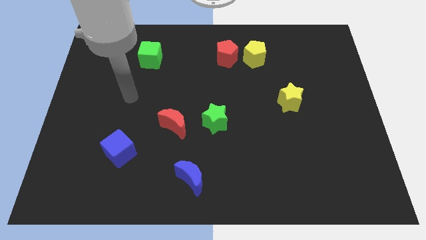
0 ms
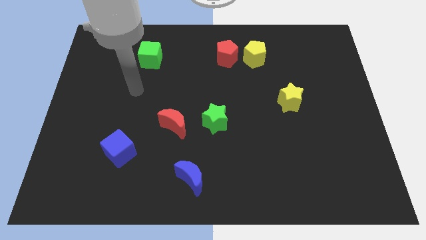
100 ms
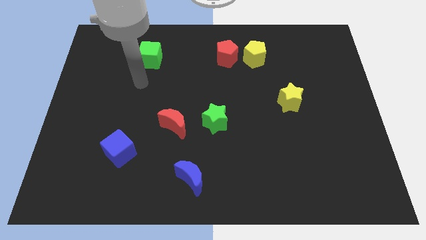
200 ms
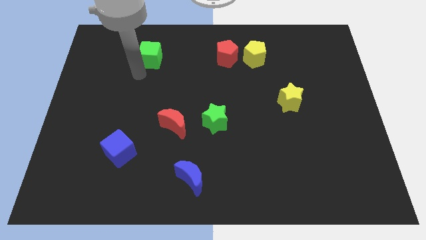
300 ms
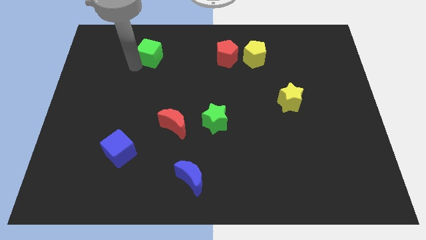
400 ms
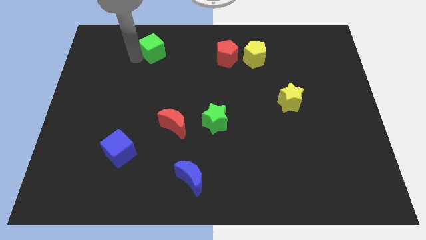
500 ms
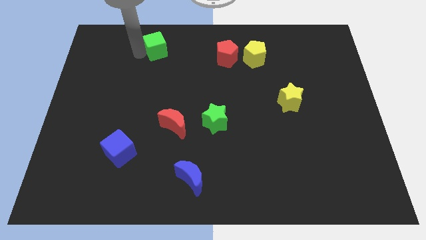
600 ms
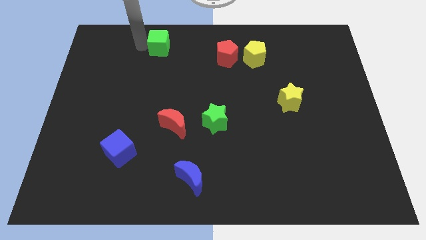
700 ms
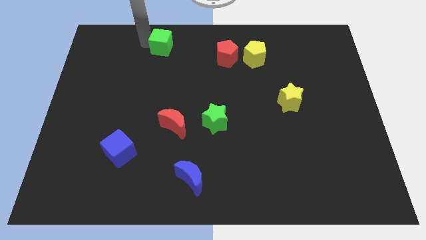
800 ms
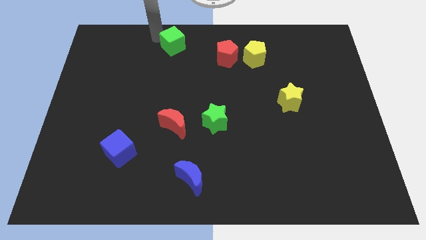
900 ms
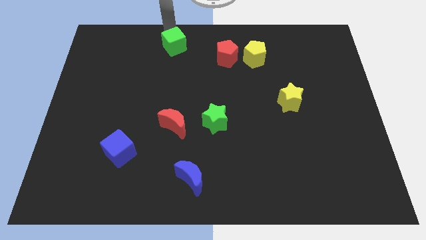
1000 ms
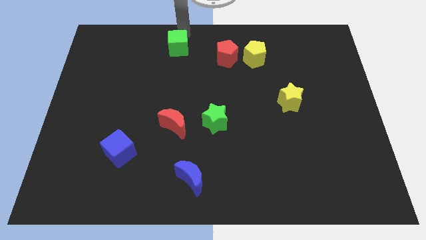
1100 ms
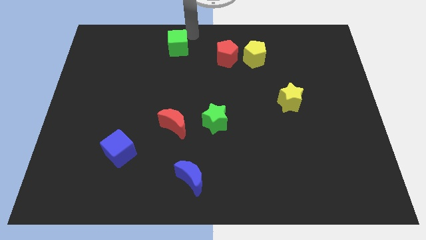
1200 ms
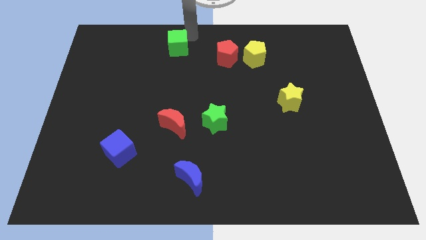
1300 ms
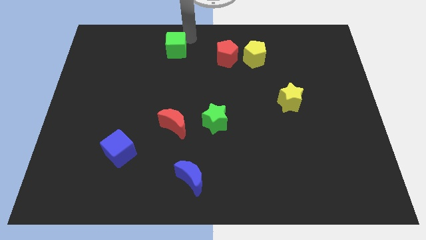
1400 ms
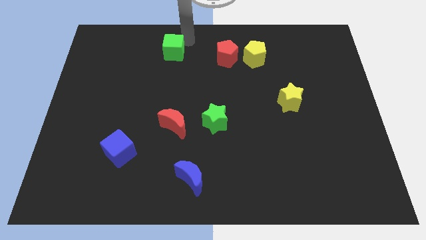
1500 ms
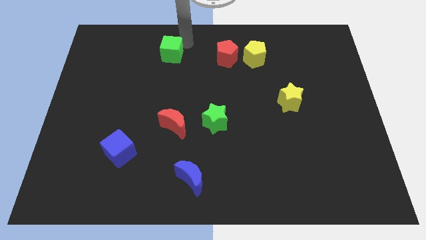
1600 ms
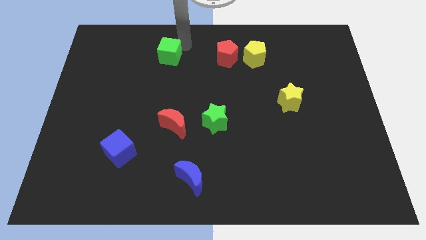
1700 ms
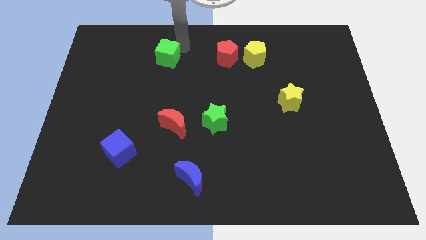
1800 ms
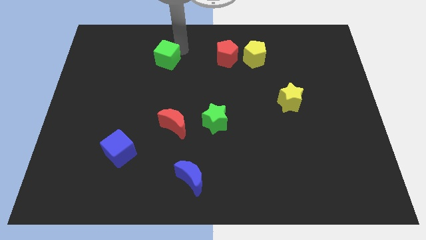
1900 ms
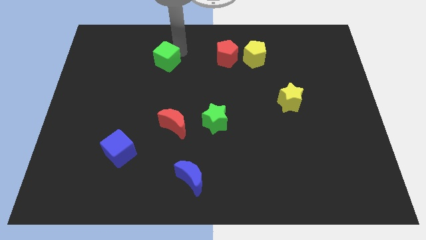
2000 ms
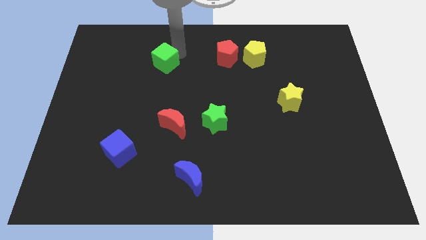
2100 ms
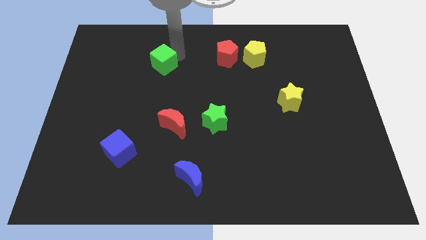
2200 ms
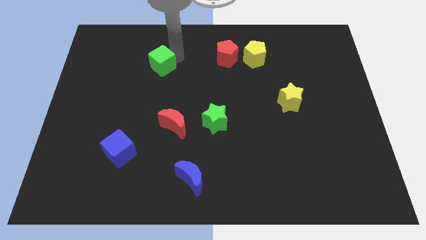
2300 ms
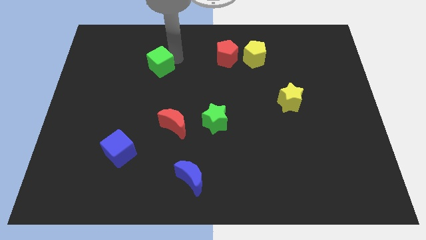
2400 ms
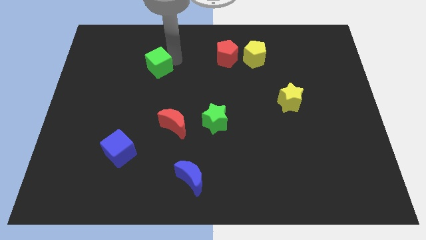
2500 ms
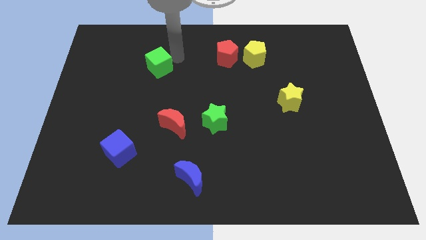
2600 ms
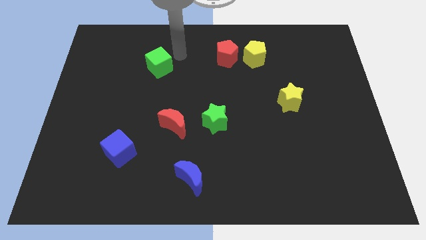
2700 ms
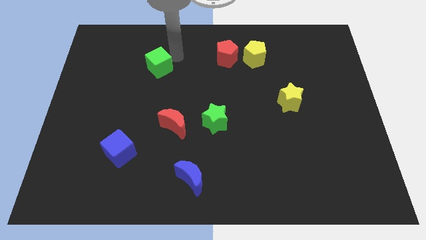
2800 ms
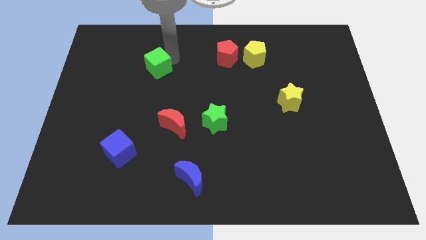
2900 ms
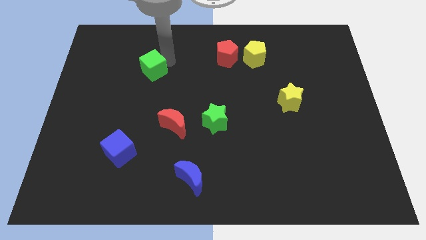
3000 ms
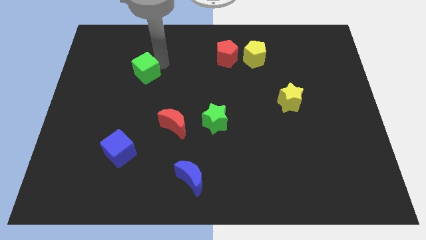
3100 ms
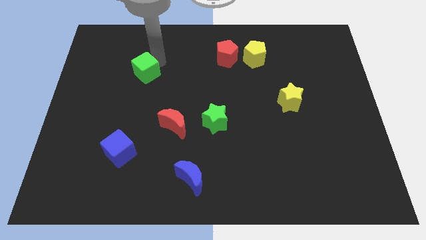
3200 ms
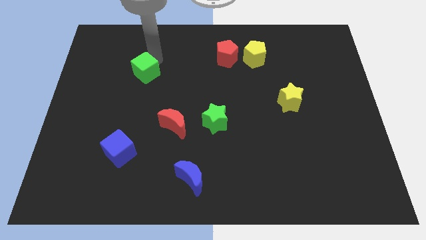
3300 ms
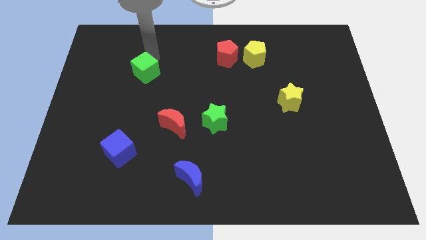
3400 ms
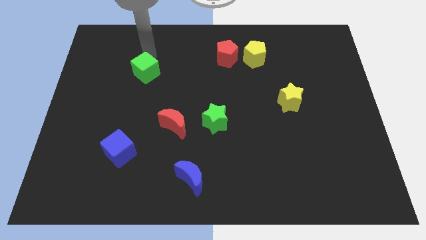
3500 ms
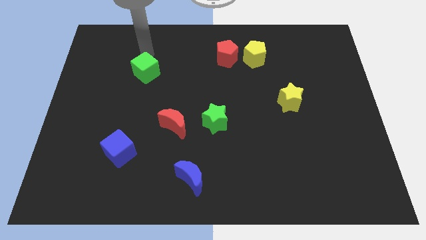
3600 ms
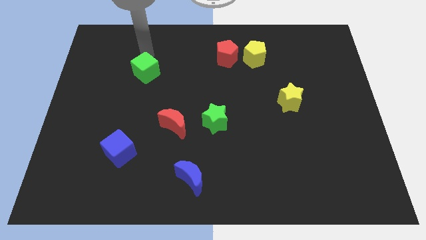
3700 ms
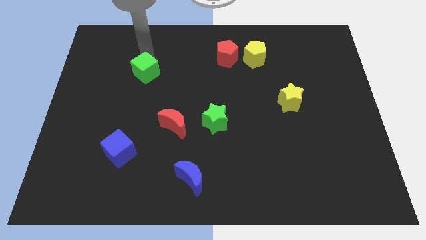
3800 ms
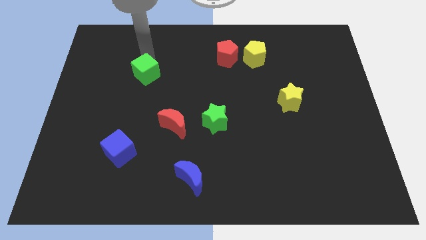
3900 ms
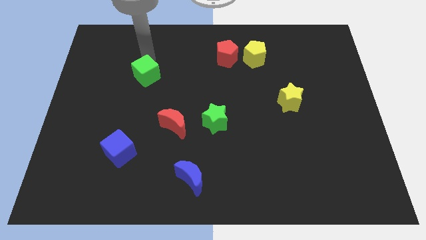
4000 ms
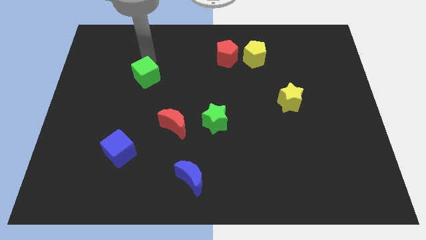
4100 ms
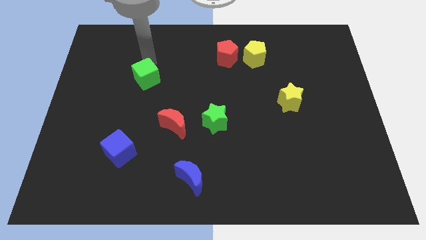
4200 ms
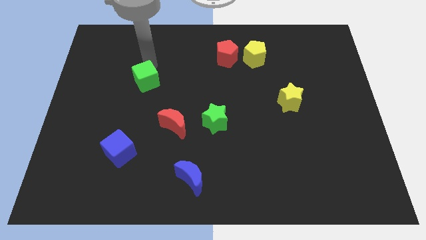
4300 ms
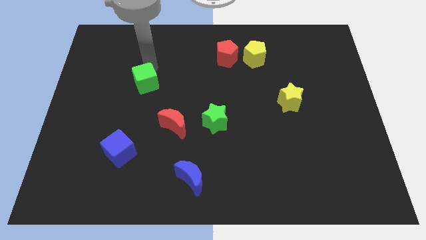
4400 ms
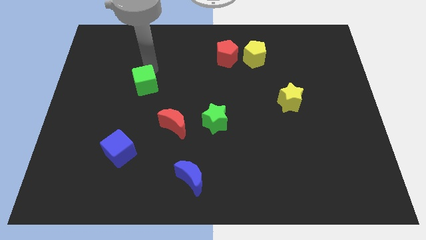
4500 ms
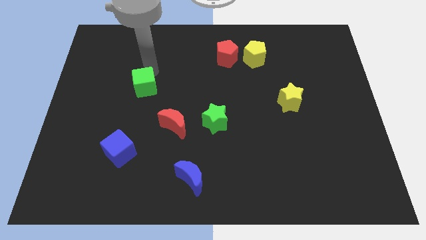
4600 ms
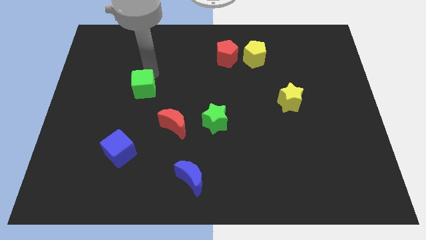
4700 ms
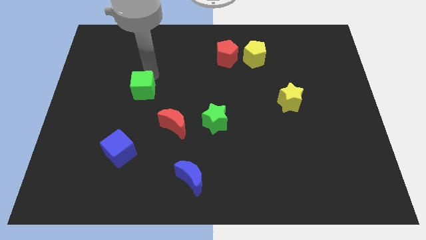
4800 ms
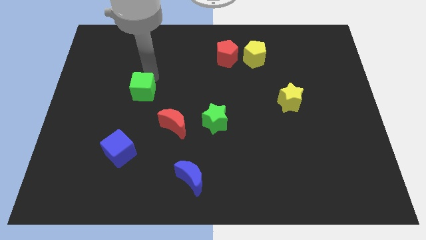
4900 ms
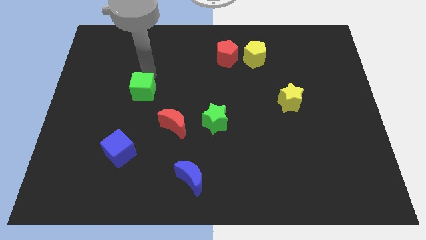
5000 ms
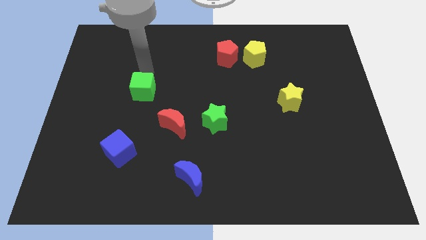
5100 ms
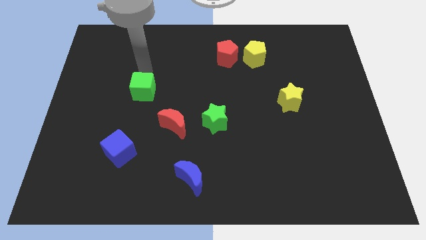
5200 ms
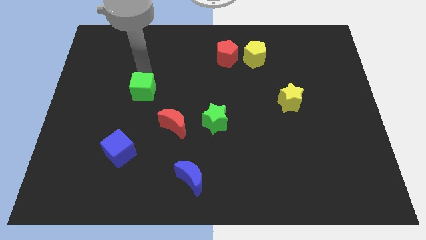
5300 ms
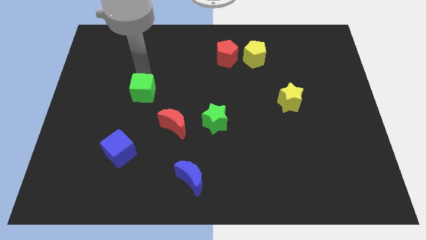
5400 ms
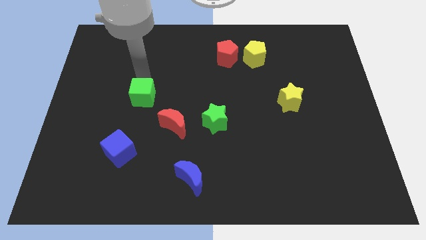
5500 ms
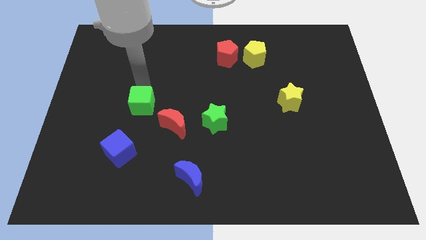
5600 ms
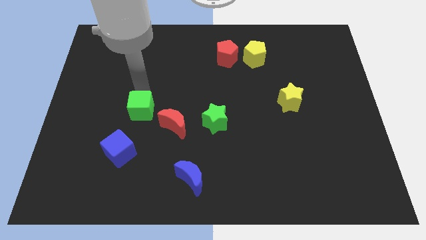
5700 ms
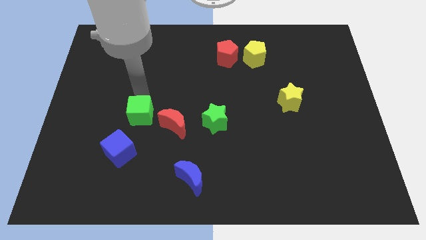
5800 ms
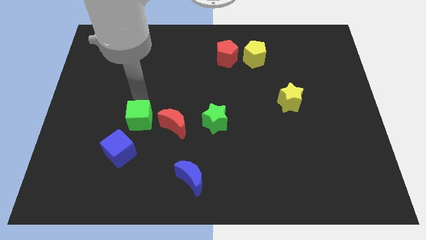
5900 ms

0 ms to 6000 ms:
move the green cube down

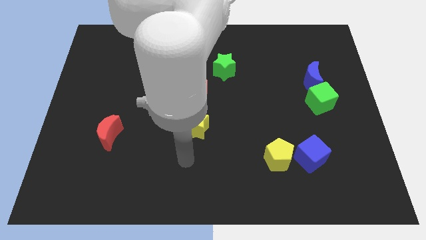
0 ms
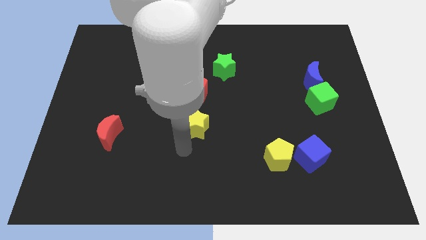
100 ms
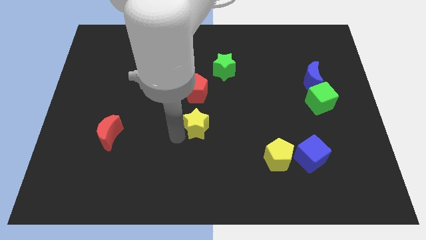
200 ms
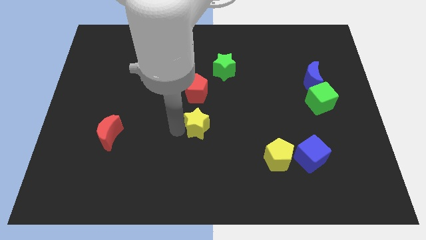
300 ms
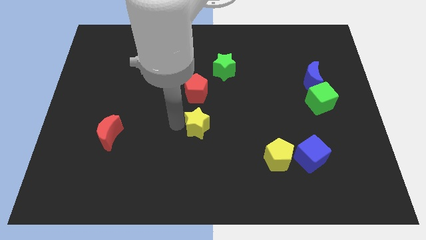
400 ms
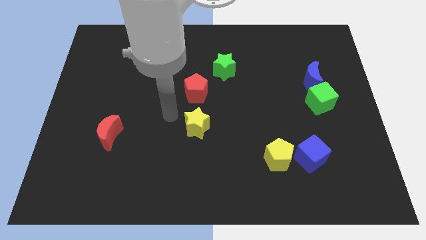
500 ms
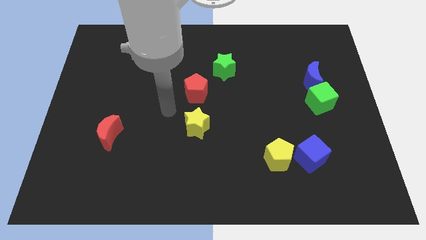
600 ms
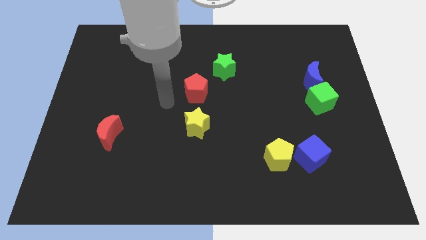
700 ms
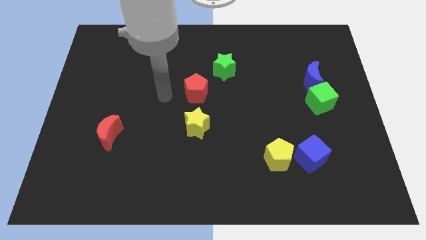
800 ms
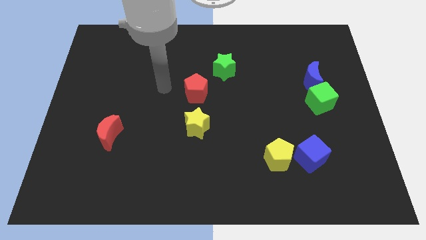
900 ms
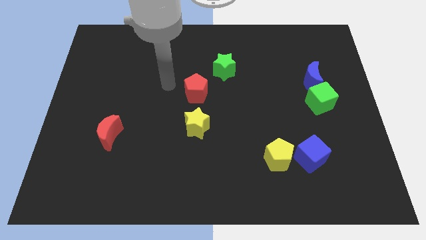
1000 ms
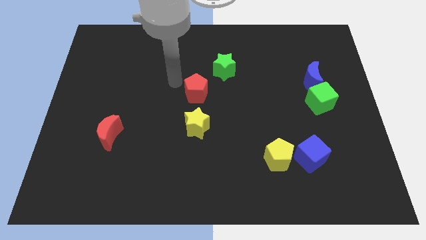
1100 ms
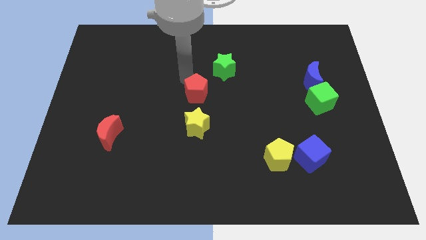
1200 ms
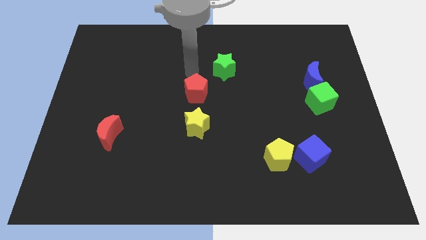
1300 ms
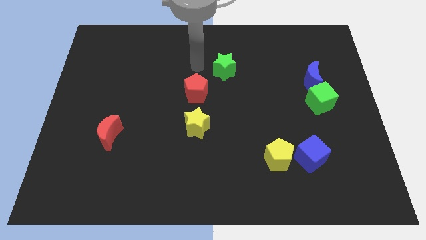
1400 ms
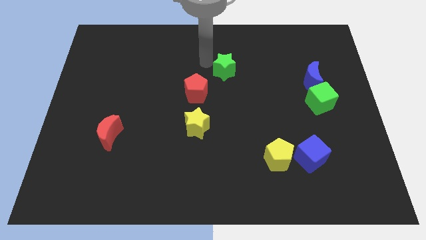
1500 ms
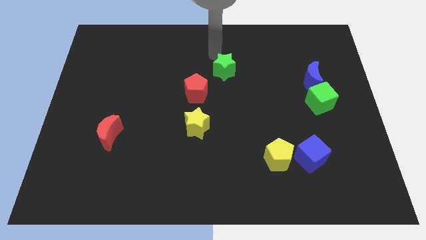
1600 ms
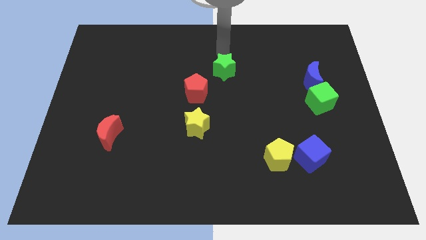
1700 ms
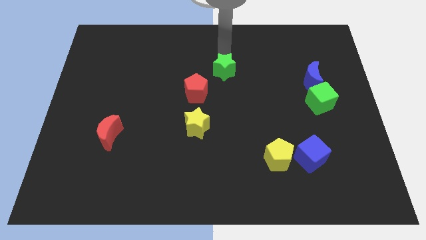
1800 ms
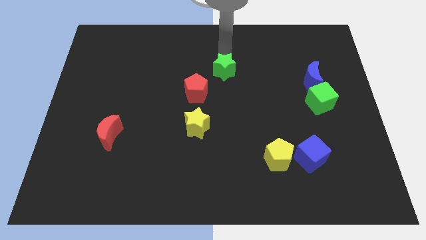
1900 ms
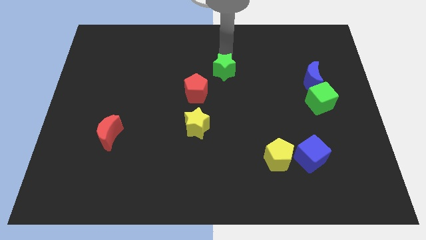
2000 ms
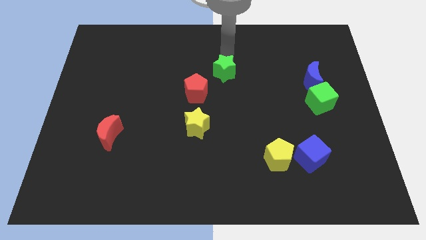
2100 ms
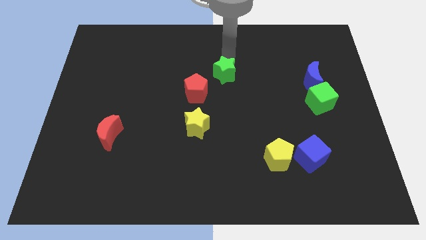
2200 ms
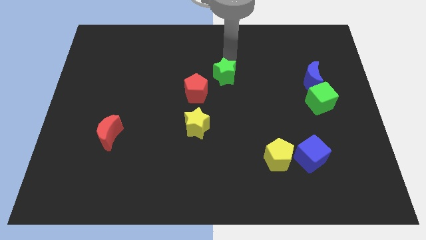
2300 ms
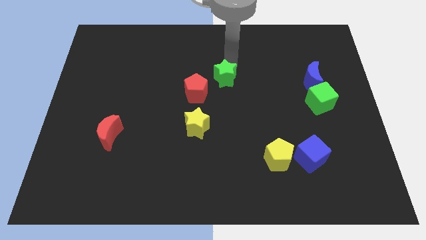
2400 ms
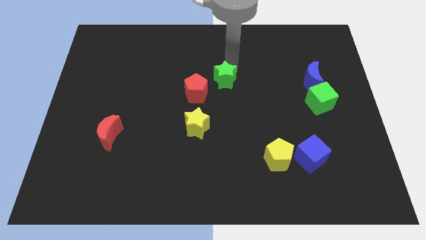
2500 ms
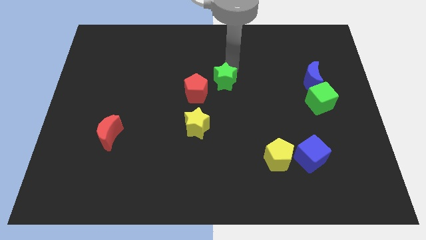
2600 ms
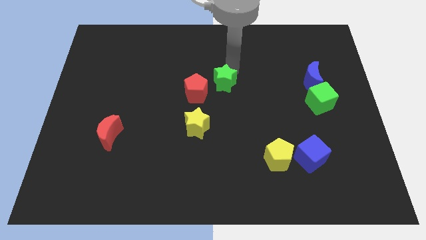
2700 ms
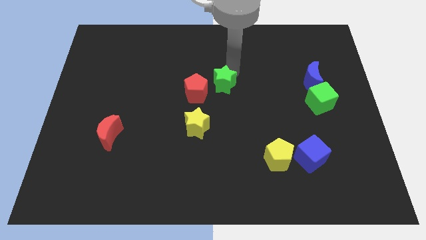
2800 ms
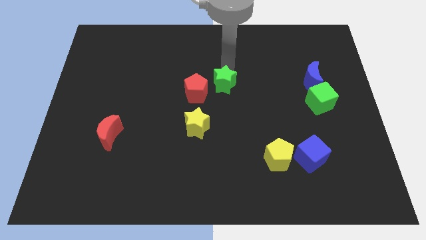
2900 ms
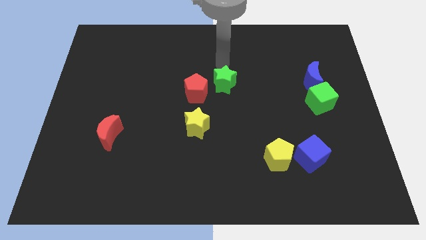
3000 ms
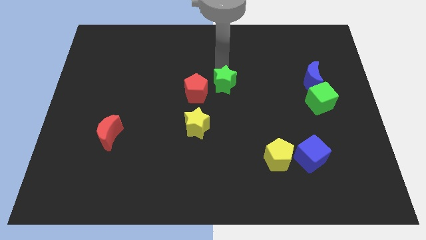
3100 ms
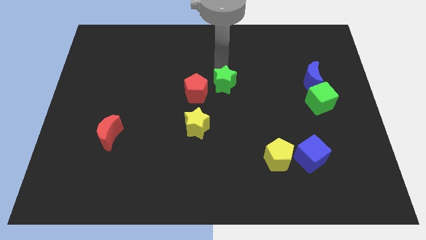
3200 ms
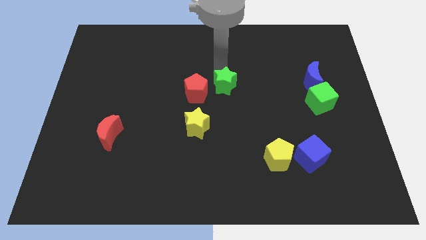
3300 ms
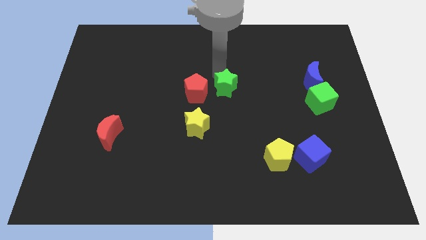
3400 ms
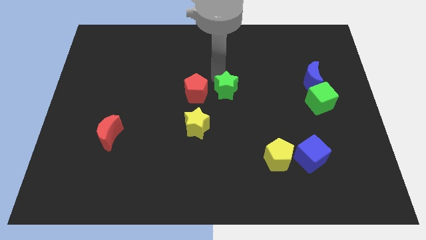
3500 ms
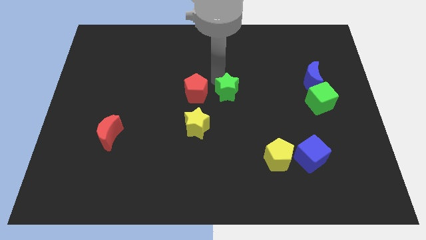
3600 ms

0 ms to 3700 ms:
move the green star downwards somewhat
